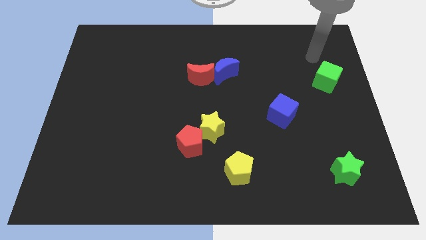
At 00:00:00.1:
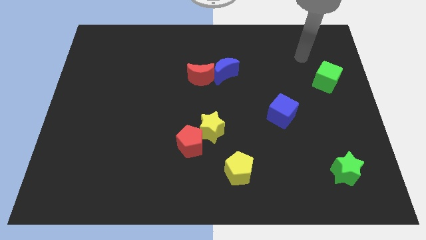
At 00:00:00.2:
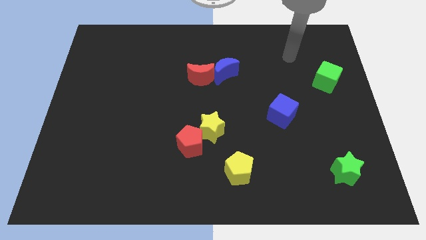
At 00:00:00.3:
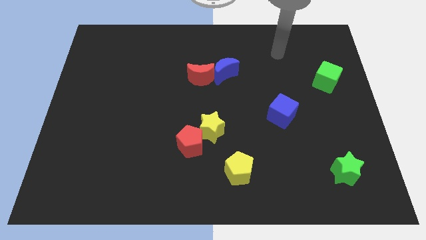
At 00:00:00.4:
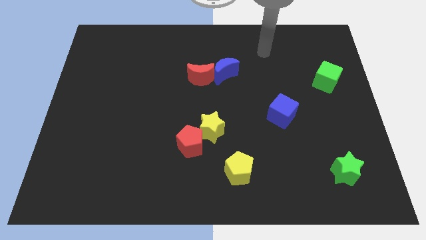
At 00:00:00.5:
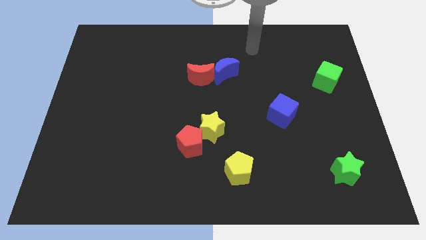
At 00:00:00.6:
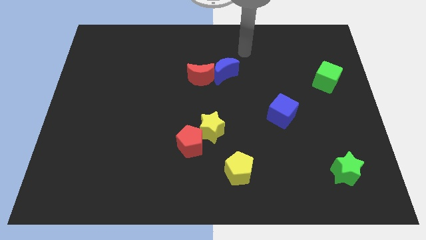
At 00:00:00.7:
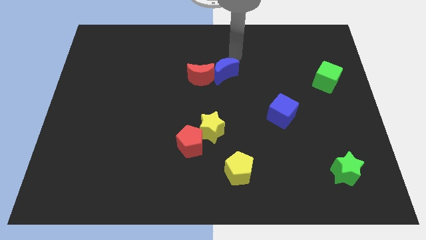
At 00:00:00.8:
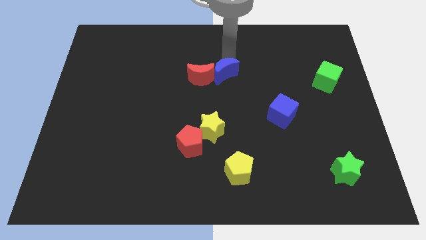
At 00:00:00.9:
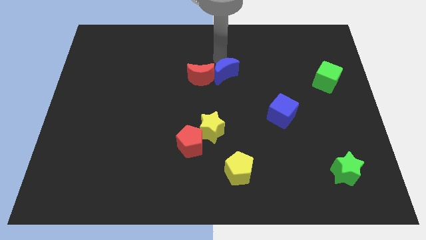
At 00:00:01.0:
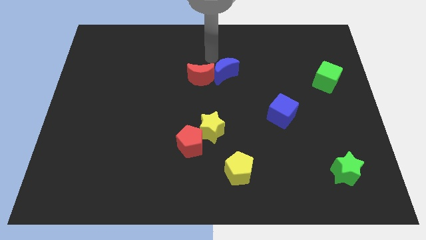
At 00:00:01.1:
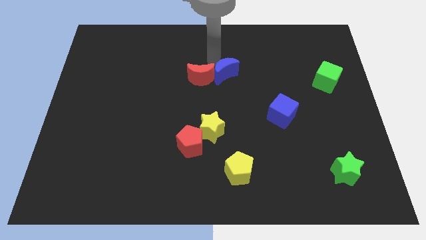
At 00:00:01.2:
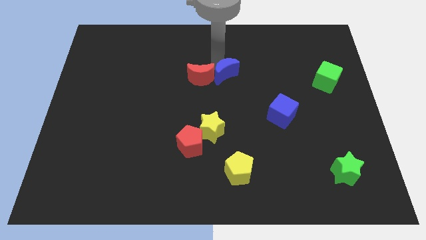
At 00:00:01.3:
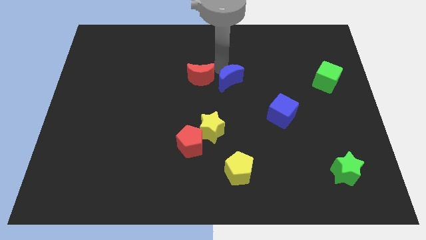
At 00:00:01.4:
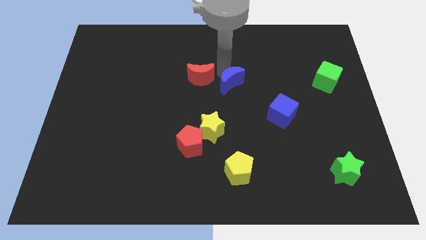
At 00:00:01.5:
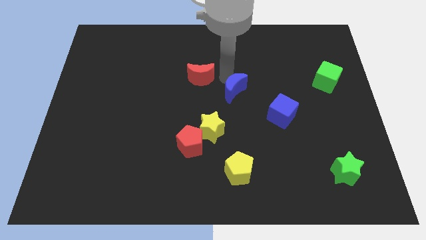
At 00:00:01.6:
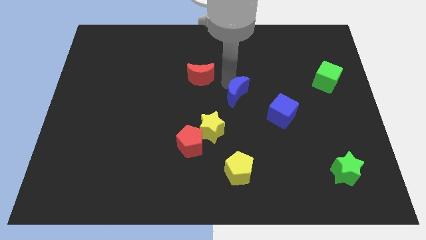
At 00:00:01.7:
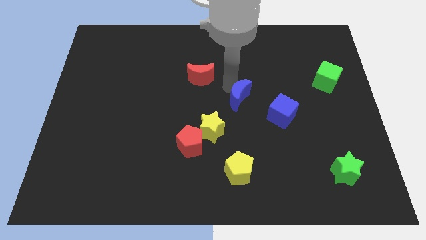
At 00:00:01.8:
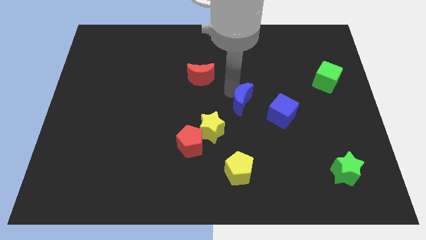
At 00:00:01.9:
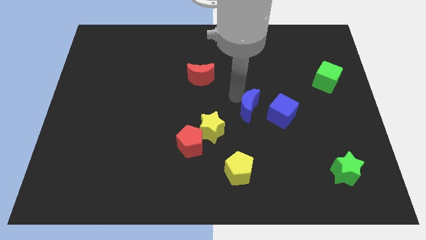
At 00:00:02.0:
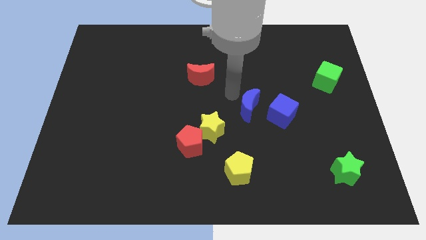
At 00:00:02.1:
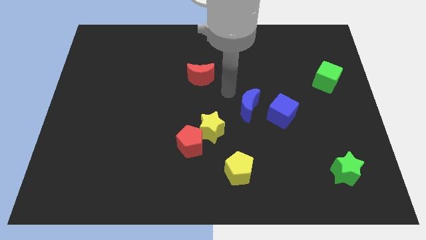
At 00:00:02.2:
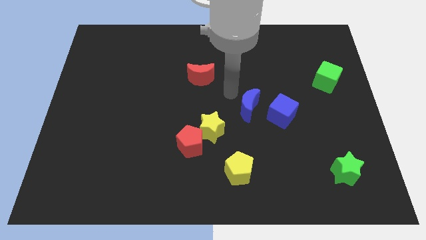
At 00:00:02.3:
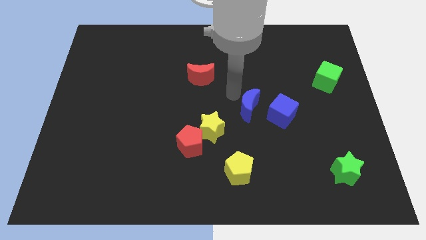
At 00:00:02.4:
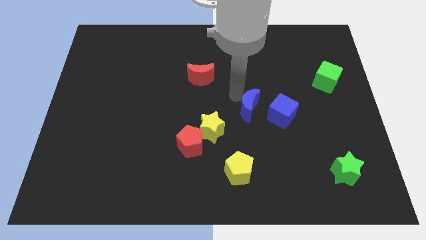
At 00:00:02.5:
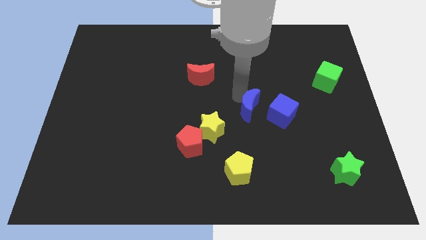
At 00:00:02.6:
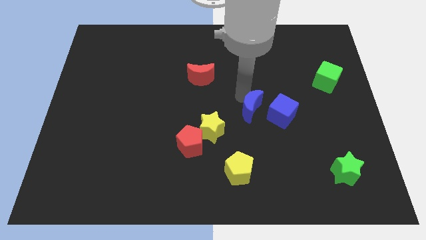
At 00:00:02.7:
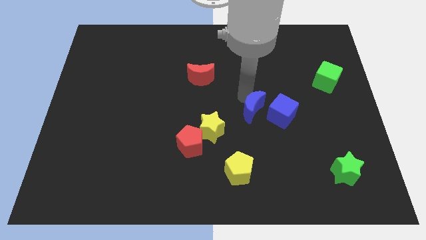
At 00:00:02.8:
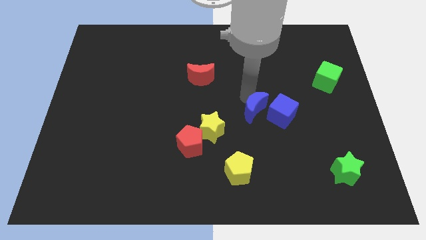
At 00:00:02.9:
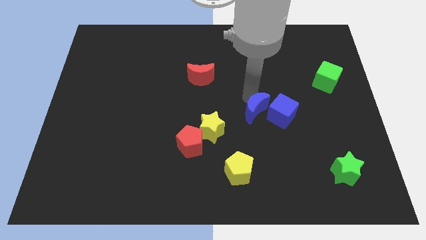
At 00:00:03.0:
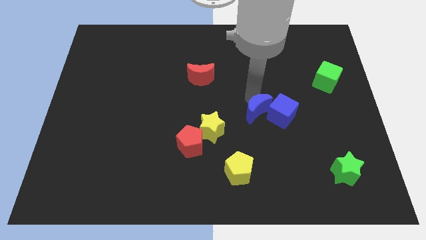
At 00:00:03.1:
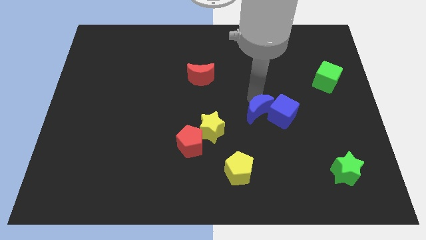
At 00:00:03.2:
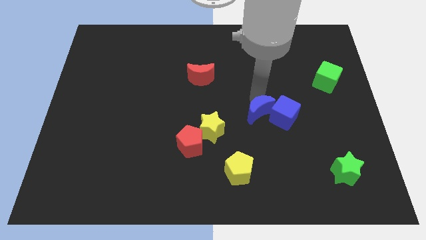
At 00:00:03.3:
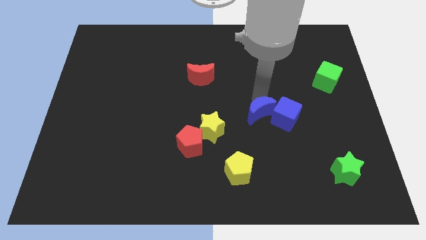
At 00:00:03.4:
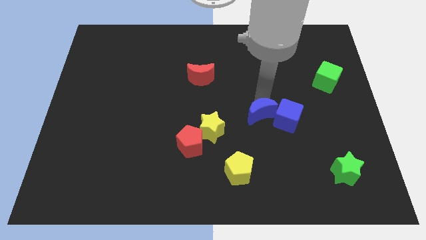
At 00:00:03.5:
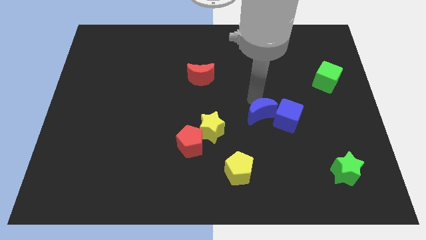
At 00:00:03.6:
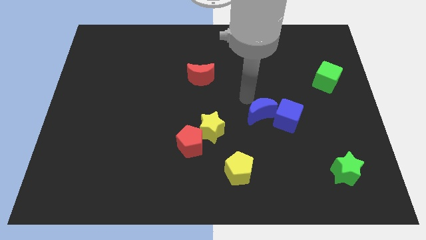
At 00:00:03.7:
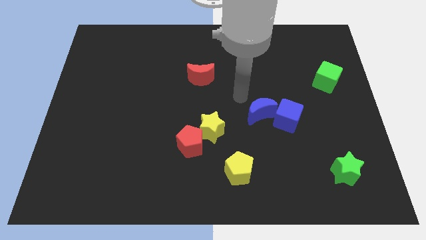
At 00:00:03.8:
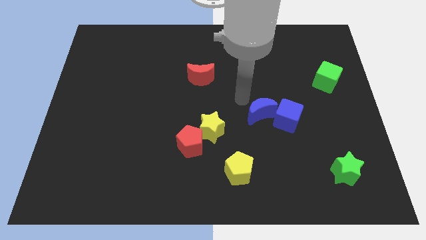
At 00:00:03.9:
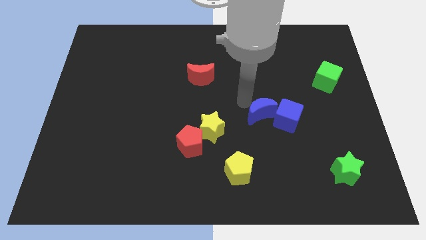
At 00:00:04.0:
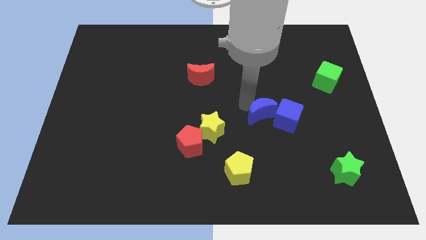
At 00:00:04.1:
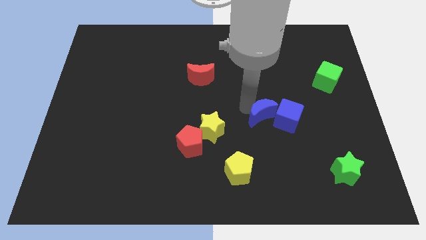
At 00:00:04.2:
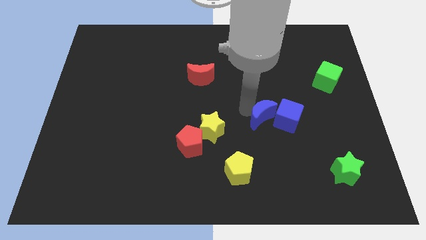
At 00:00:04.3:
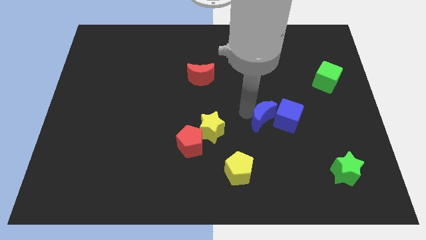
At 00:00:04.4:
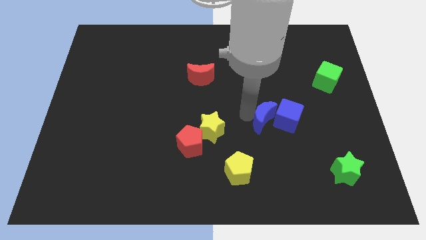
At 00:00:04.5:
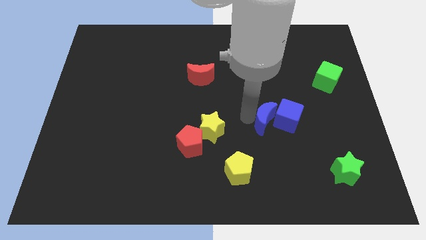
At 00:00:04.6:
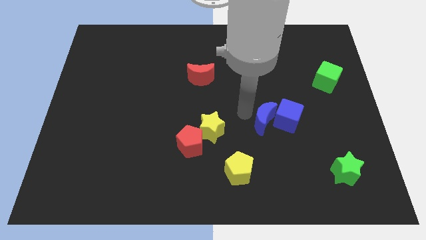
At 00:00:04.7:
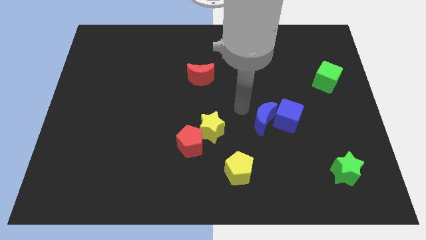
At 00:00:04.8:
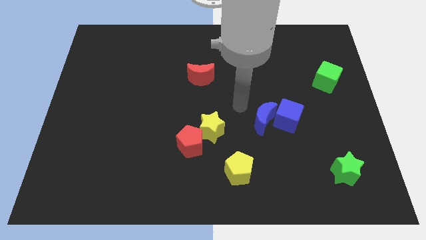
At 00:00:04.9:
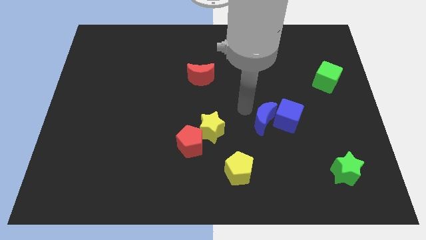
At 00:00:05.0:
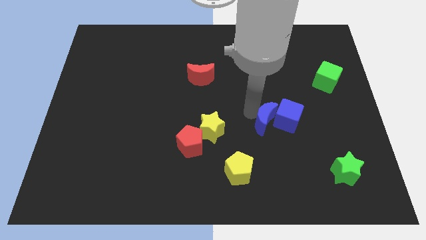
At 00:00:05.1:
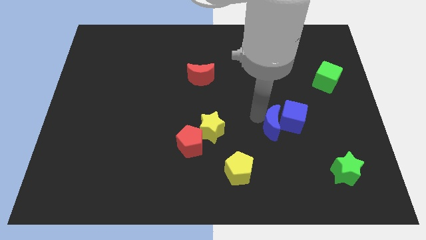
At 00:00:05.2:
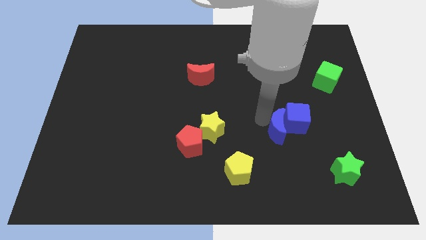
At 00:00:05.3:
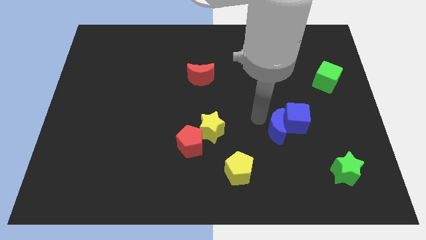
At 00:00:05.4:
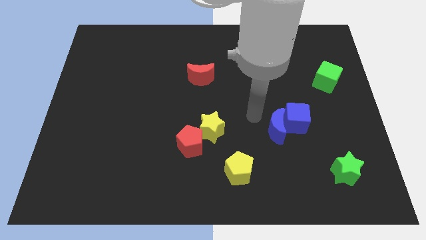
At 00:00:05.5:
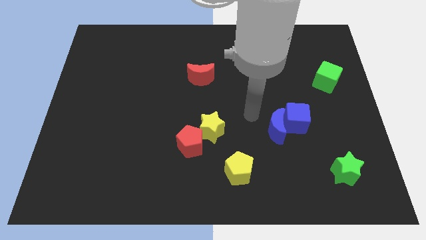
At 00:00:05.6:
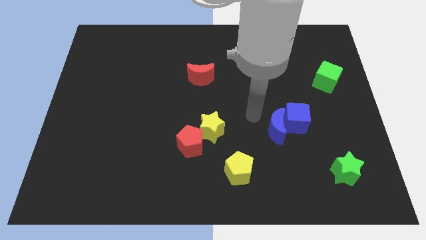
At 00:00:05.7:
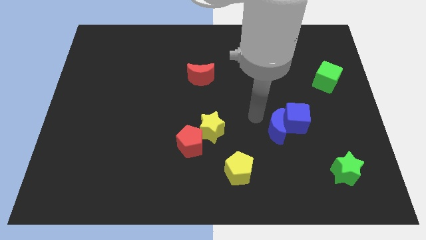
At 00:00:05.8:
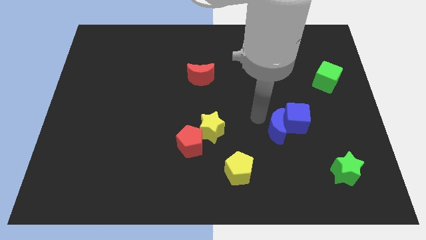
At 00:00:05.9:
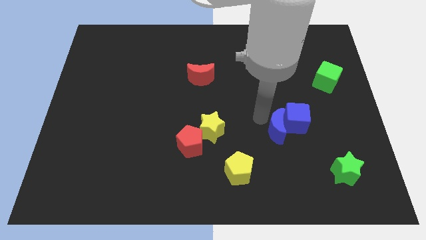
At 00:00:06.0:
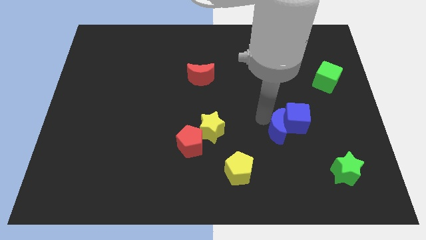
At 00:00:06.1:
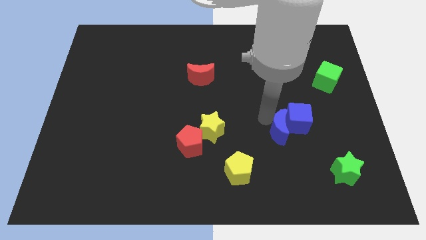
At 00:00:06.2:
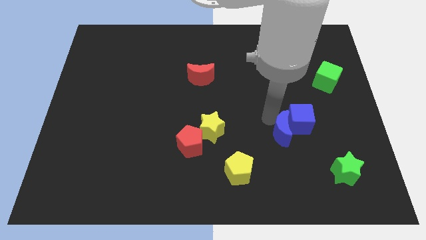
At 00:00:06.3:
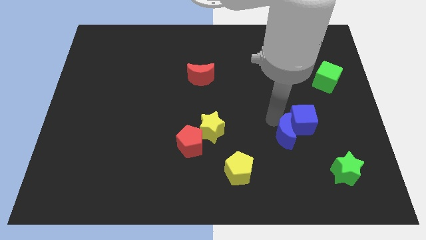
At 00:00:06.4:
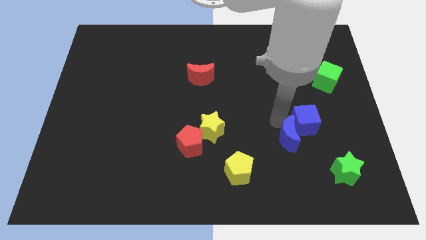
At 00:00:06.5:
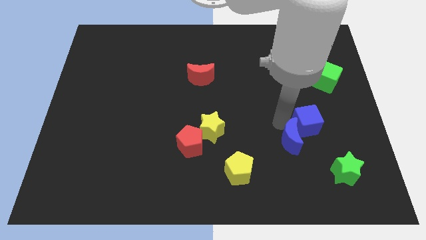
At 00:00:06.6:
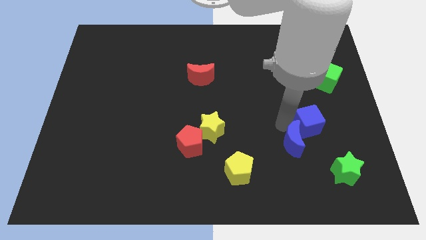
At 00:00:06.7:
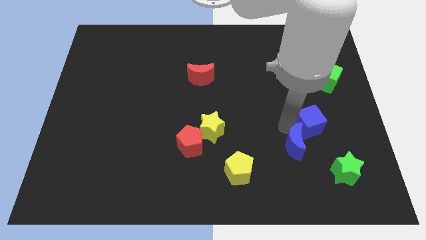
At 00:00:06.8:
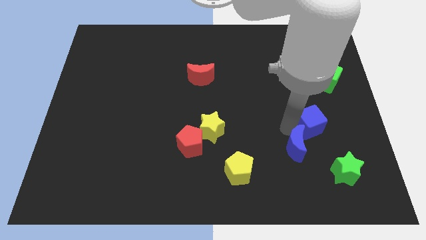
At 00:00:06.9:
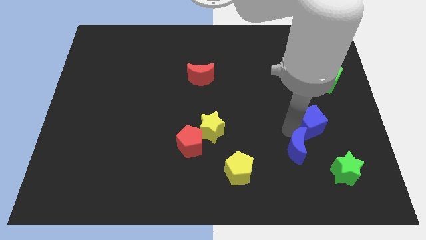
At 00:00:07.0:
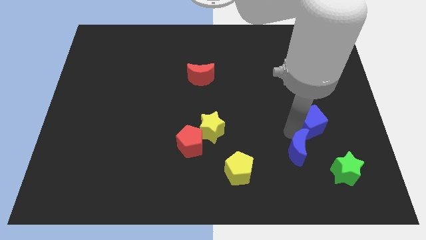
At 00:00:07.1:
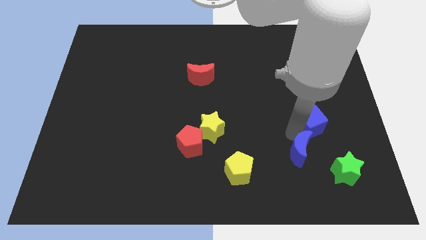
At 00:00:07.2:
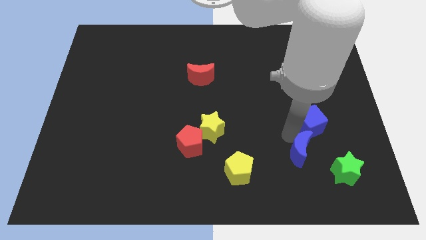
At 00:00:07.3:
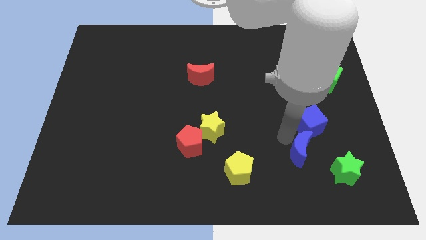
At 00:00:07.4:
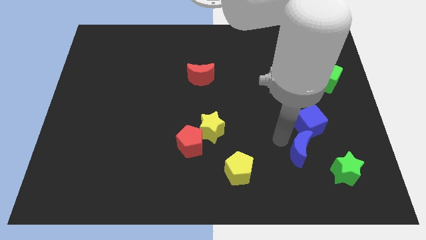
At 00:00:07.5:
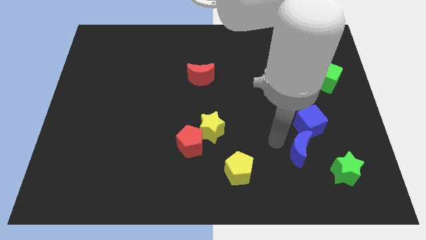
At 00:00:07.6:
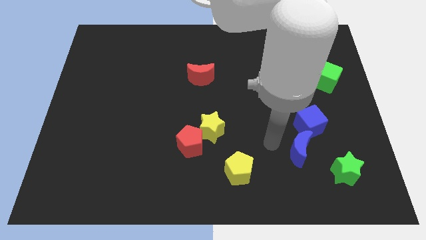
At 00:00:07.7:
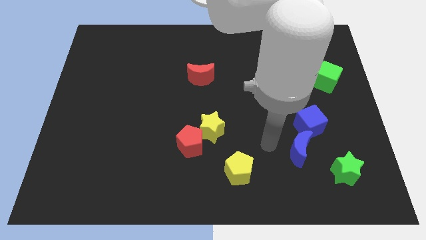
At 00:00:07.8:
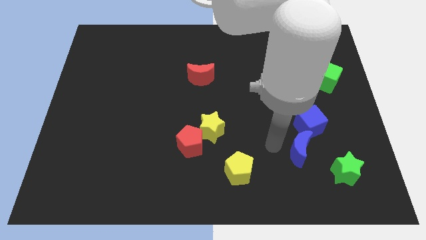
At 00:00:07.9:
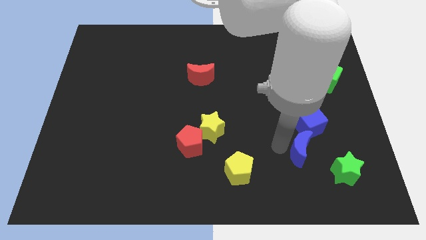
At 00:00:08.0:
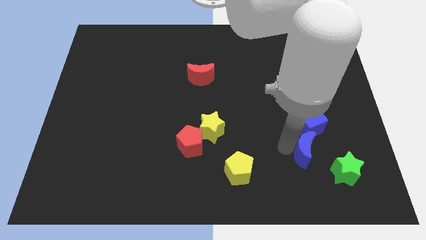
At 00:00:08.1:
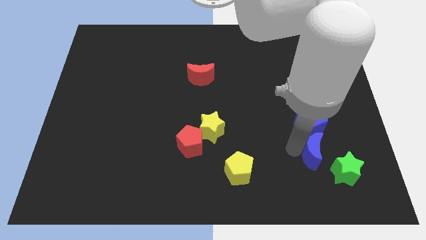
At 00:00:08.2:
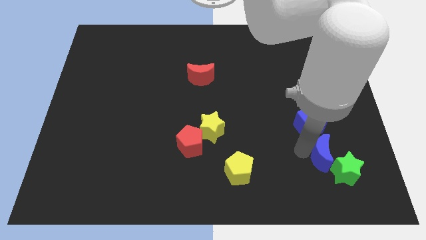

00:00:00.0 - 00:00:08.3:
push the blue moon next to the green star
